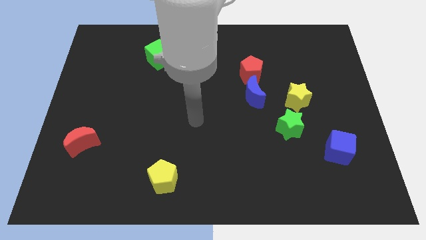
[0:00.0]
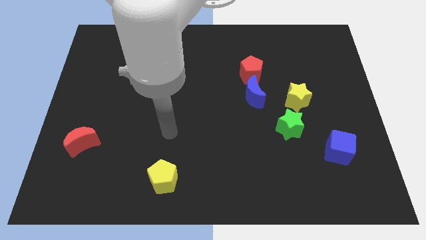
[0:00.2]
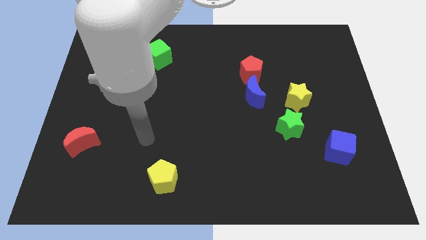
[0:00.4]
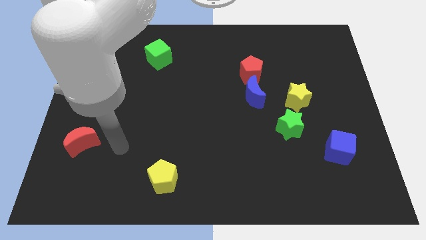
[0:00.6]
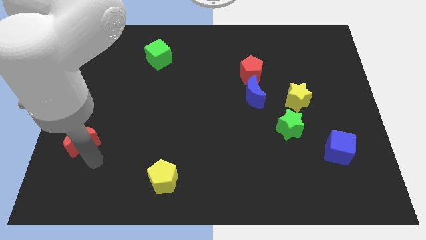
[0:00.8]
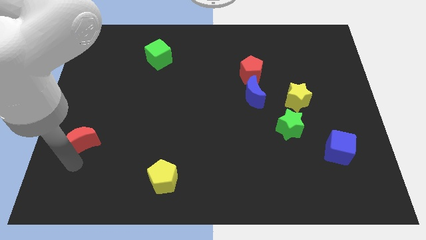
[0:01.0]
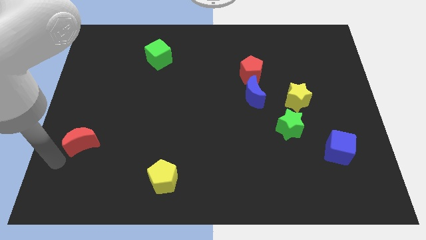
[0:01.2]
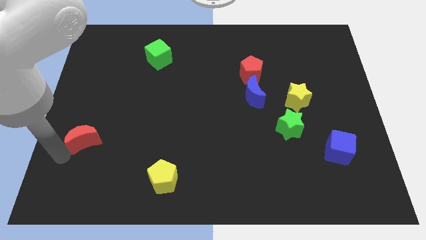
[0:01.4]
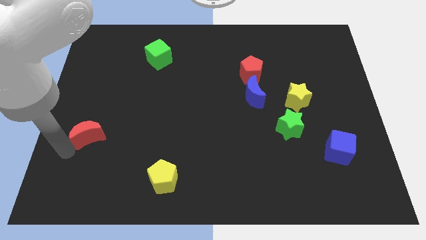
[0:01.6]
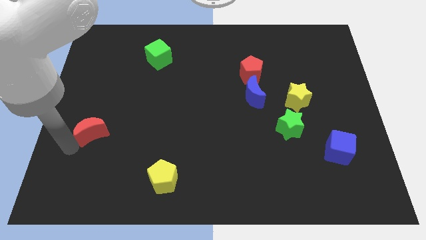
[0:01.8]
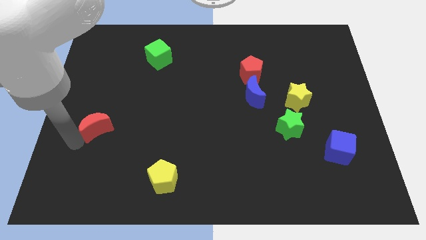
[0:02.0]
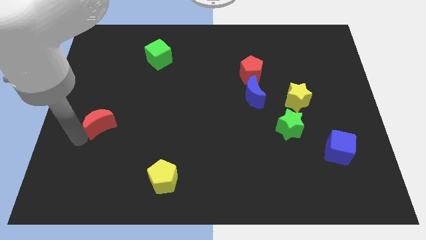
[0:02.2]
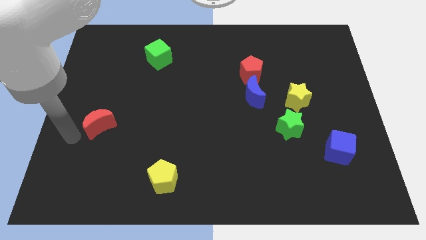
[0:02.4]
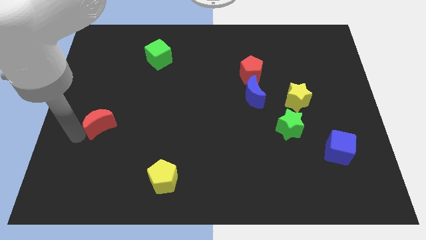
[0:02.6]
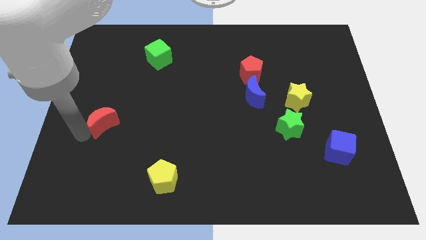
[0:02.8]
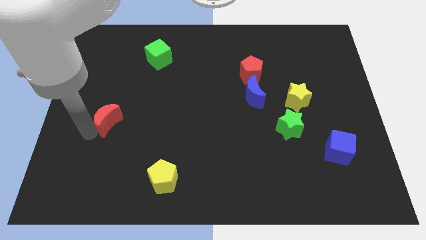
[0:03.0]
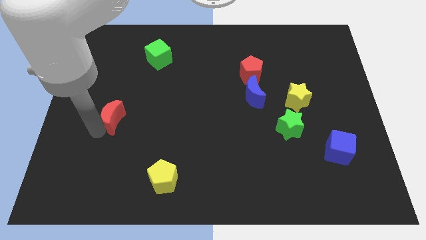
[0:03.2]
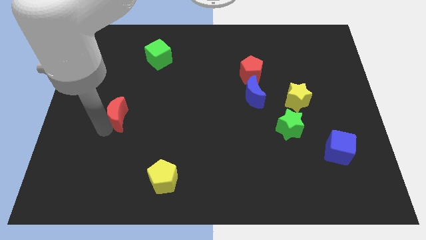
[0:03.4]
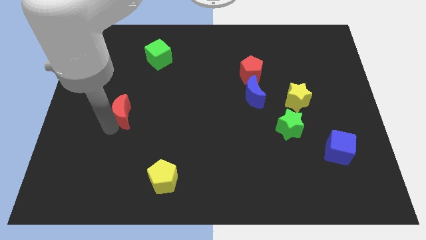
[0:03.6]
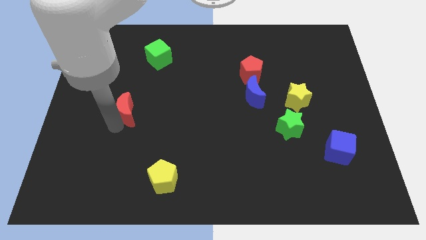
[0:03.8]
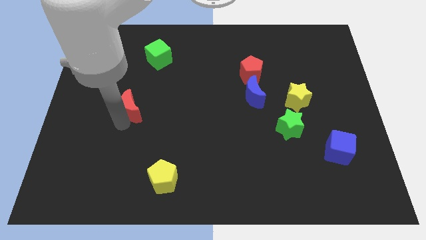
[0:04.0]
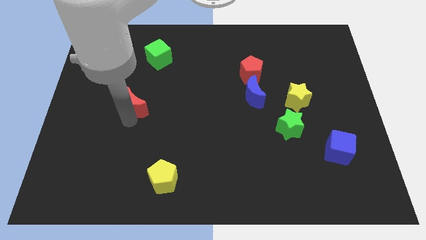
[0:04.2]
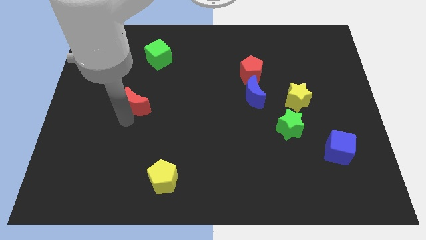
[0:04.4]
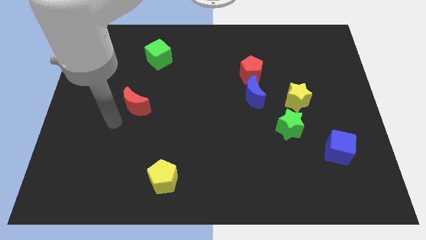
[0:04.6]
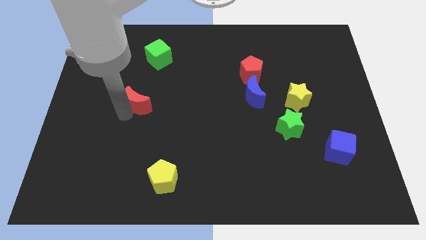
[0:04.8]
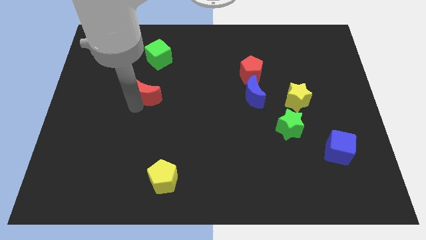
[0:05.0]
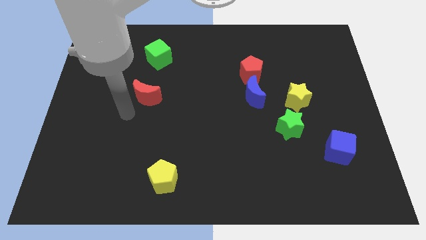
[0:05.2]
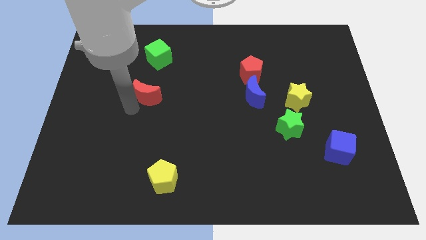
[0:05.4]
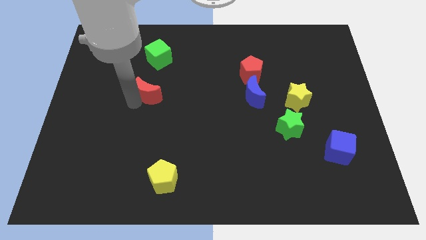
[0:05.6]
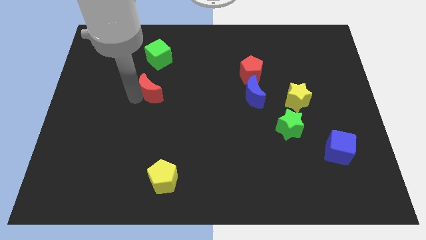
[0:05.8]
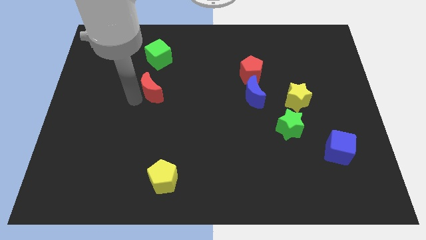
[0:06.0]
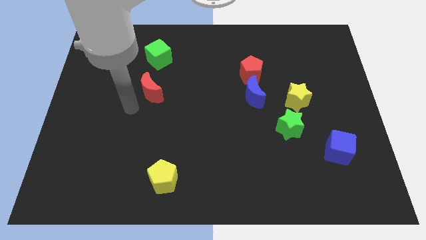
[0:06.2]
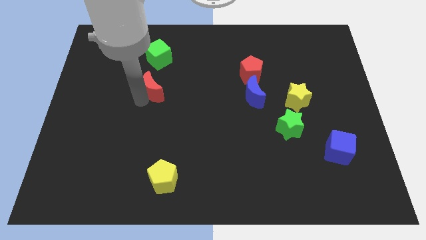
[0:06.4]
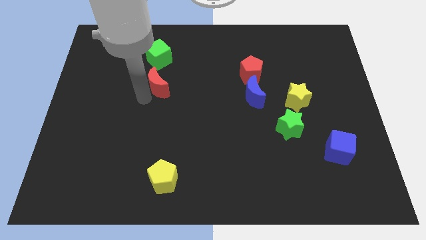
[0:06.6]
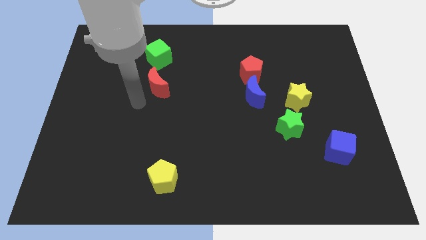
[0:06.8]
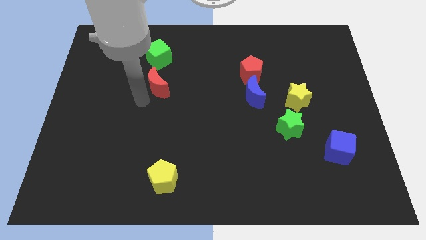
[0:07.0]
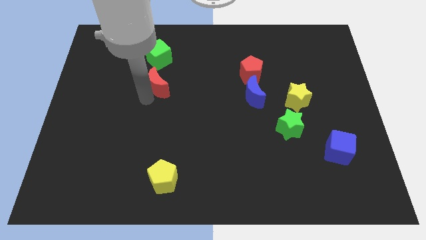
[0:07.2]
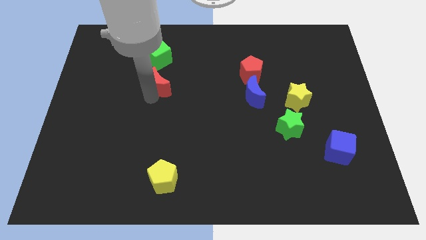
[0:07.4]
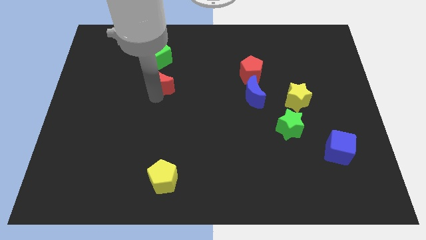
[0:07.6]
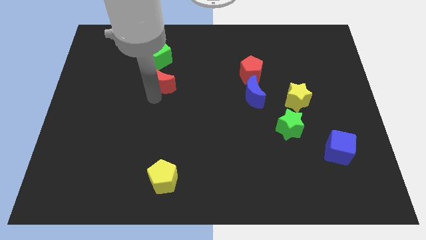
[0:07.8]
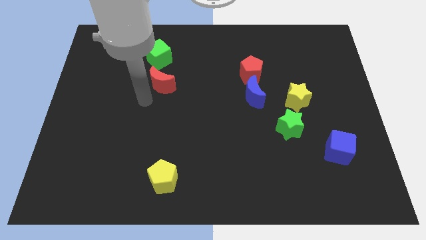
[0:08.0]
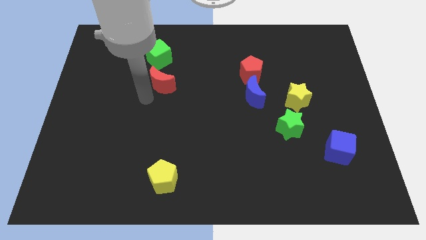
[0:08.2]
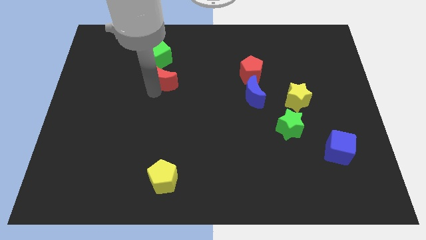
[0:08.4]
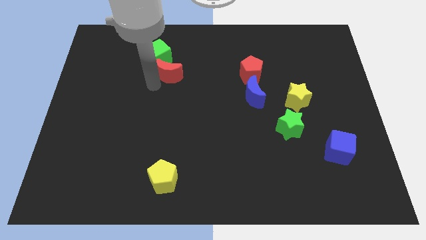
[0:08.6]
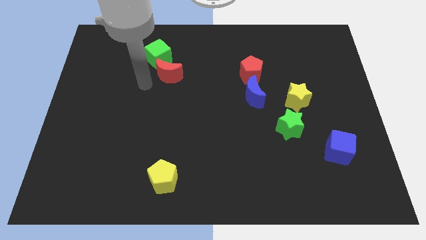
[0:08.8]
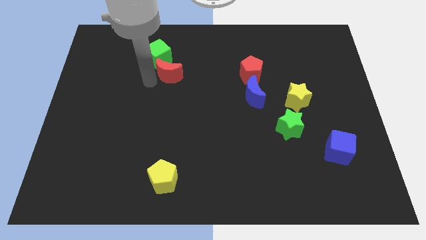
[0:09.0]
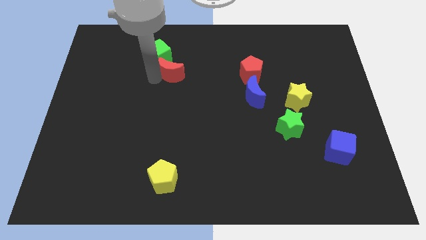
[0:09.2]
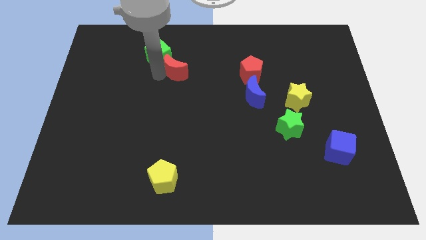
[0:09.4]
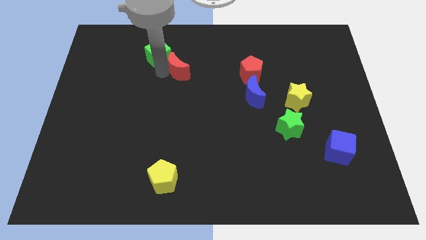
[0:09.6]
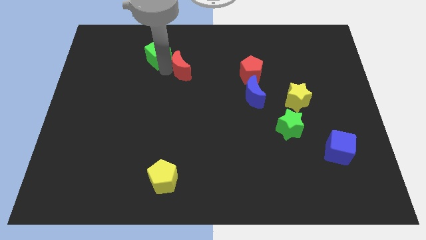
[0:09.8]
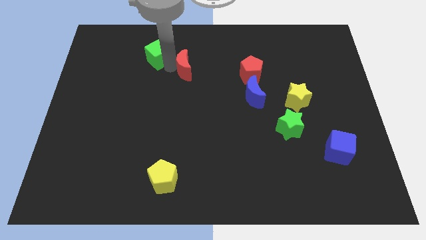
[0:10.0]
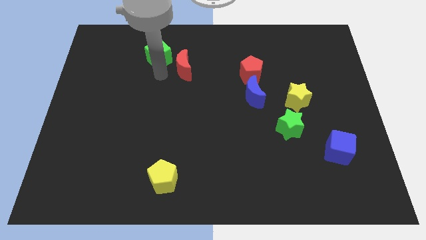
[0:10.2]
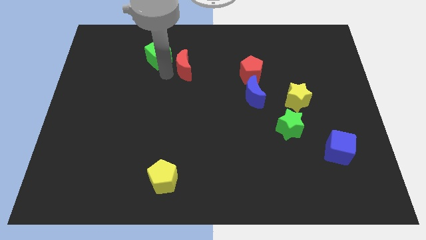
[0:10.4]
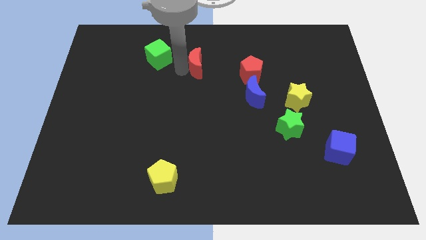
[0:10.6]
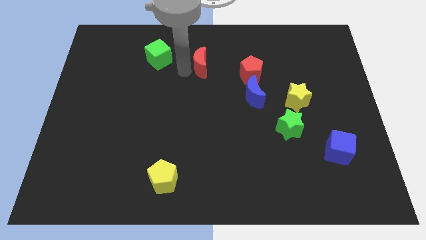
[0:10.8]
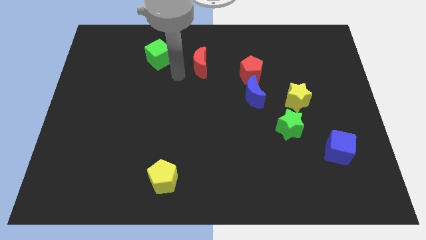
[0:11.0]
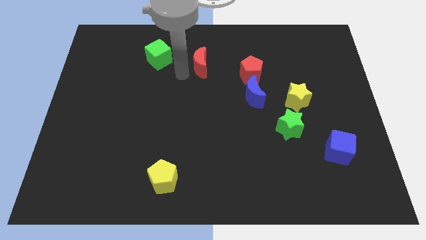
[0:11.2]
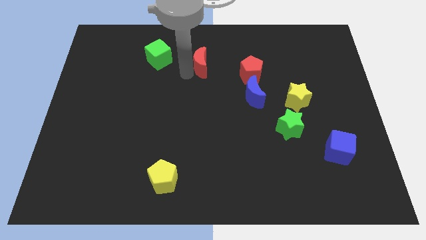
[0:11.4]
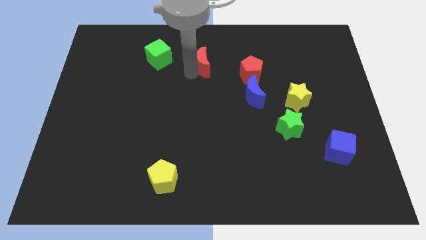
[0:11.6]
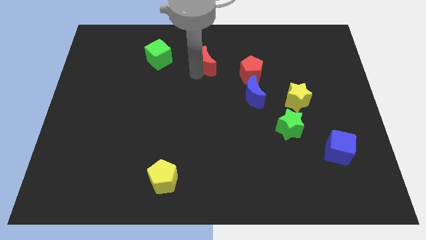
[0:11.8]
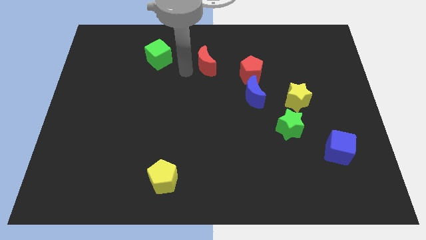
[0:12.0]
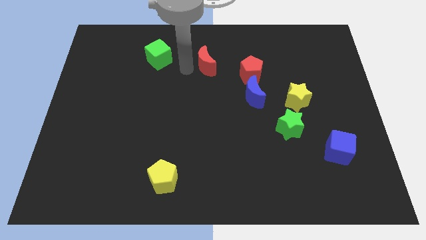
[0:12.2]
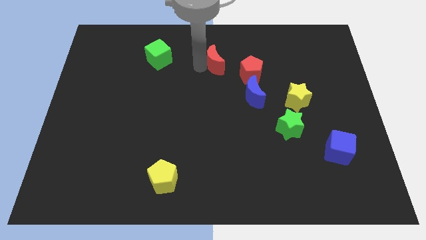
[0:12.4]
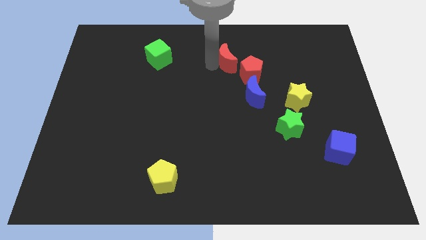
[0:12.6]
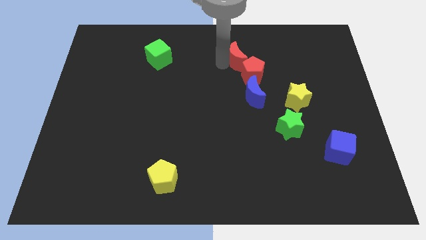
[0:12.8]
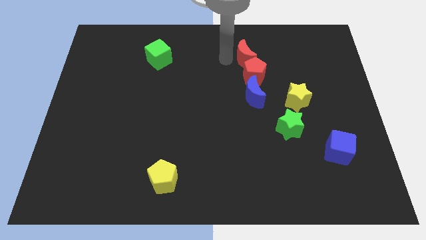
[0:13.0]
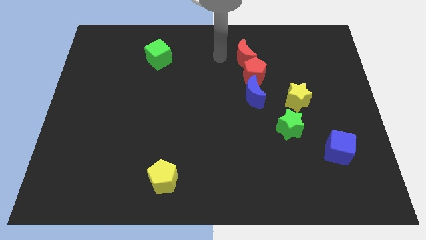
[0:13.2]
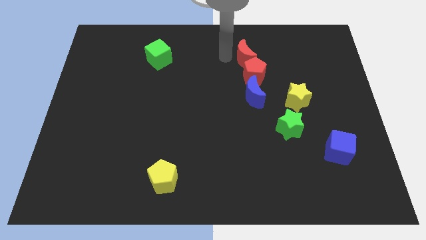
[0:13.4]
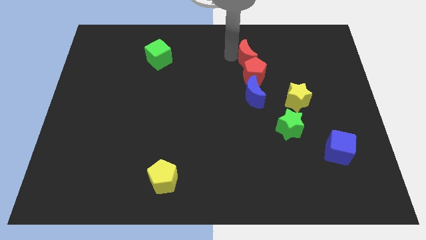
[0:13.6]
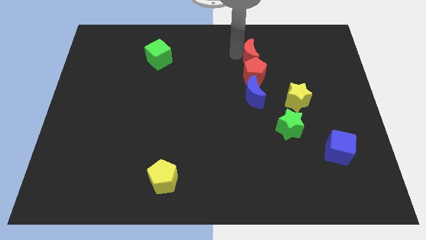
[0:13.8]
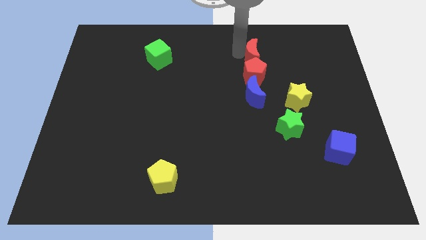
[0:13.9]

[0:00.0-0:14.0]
slide the red moon diagonally up and to the right of the red pentagon
